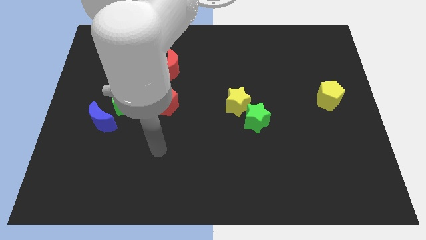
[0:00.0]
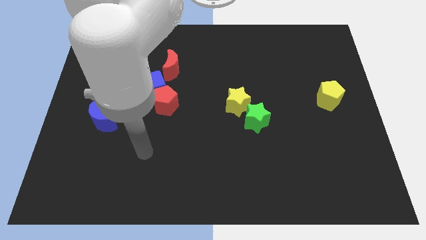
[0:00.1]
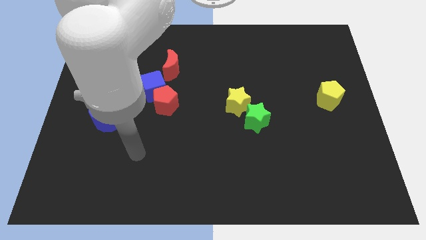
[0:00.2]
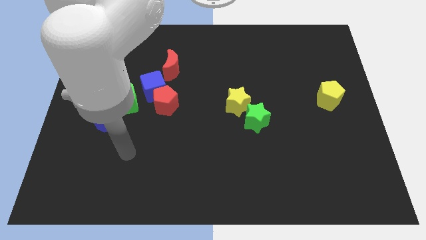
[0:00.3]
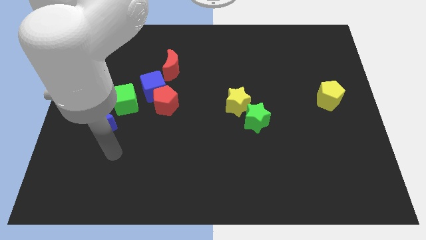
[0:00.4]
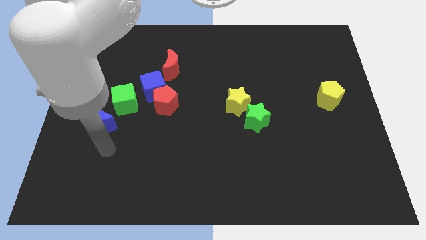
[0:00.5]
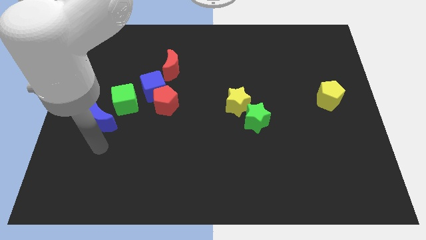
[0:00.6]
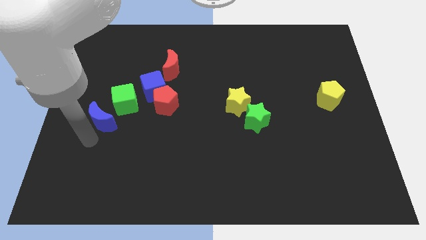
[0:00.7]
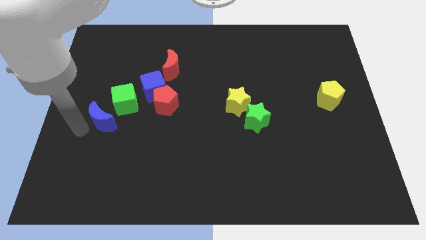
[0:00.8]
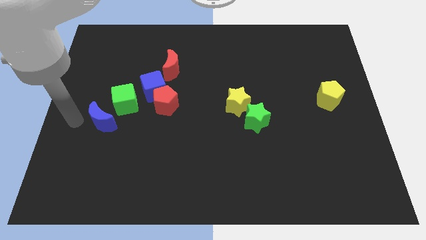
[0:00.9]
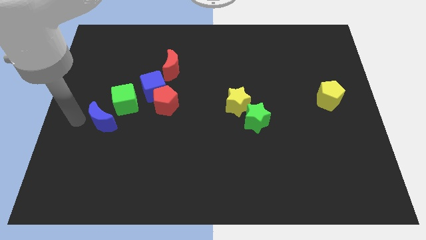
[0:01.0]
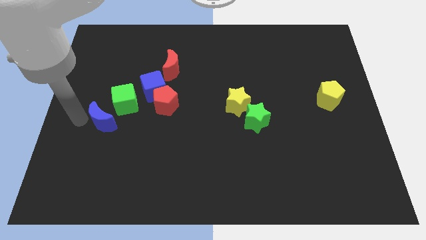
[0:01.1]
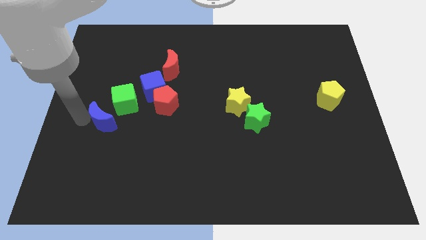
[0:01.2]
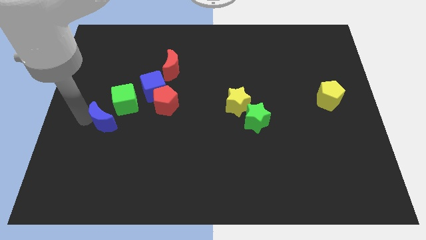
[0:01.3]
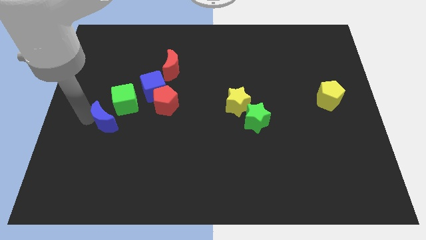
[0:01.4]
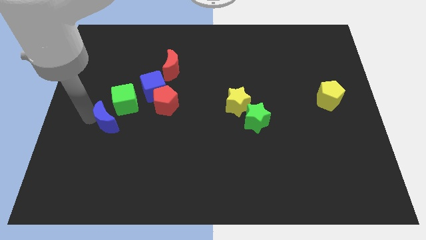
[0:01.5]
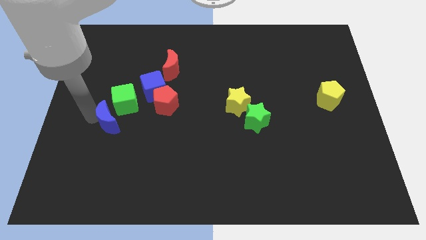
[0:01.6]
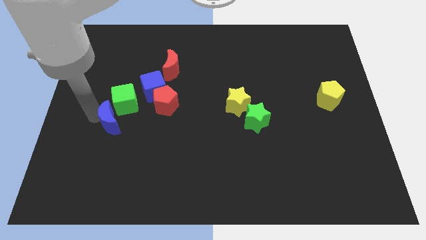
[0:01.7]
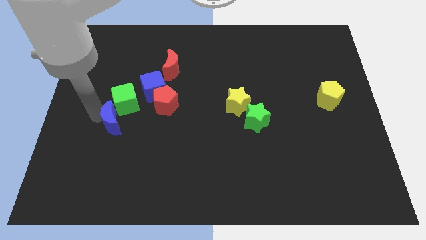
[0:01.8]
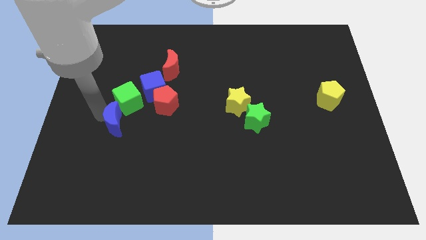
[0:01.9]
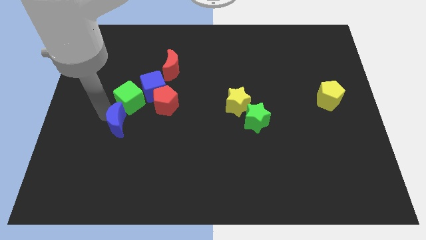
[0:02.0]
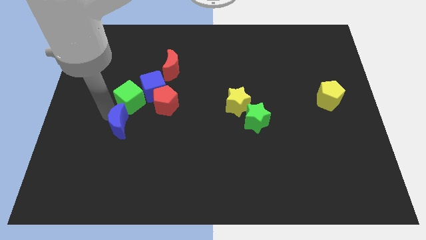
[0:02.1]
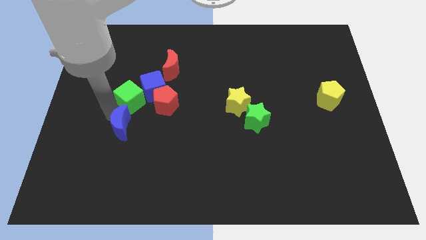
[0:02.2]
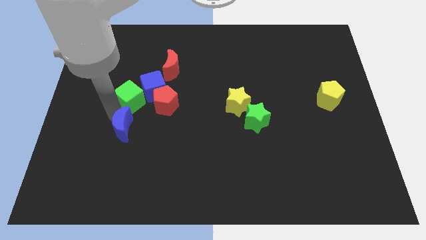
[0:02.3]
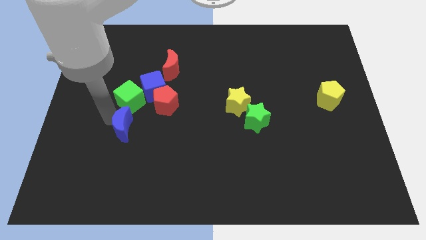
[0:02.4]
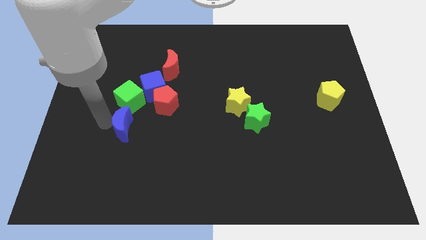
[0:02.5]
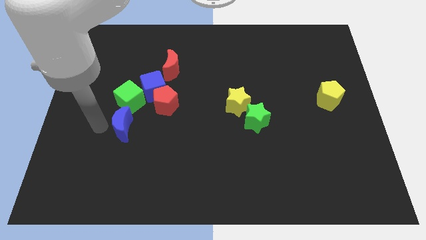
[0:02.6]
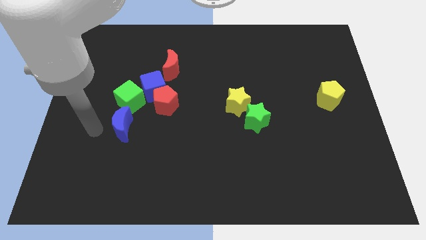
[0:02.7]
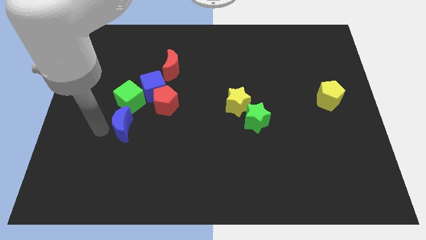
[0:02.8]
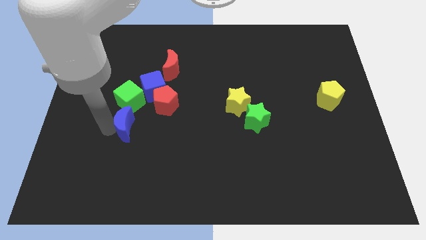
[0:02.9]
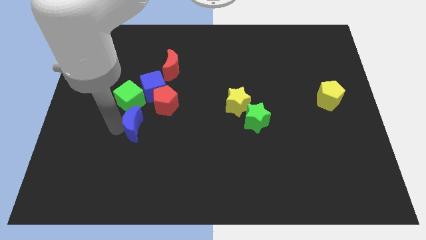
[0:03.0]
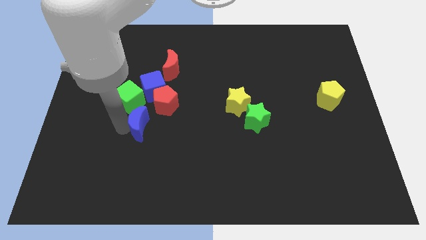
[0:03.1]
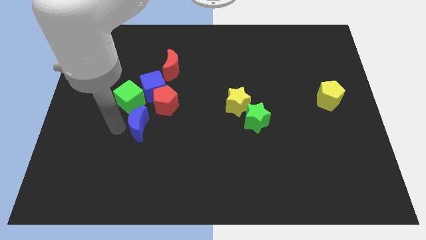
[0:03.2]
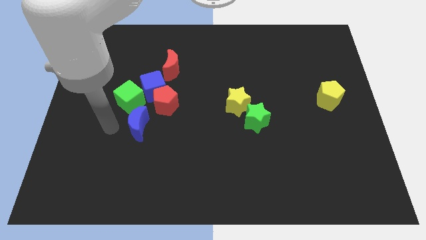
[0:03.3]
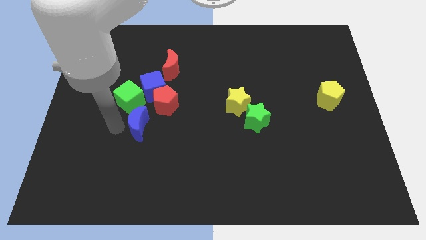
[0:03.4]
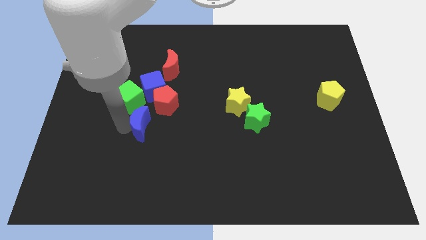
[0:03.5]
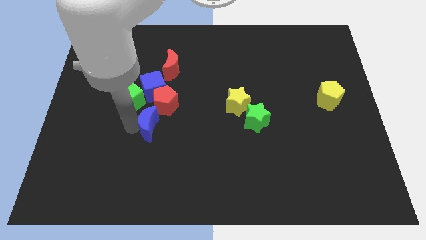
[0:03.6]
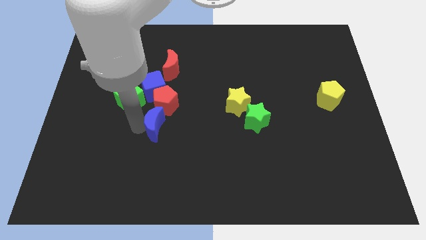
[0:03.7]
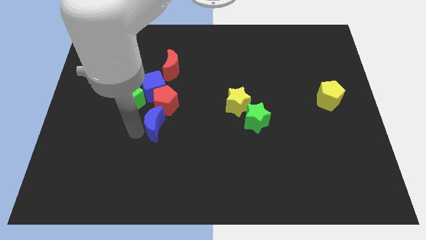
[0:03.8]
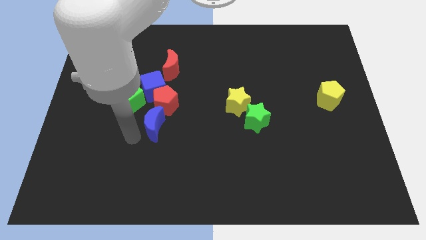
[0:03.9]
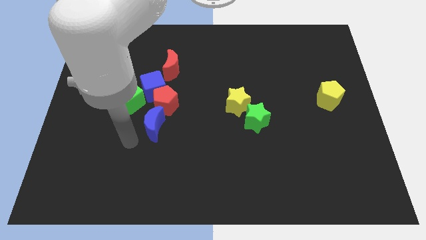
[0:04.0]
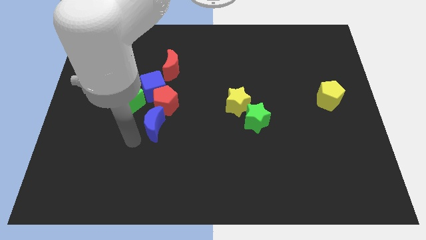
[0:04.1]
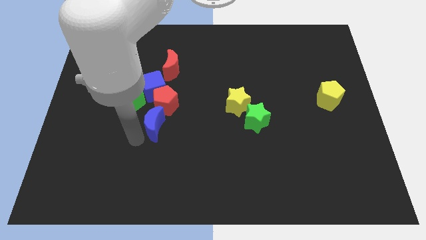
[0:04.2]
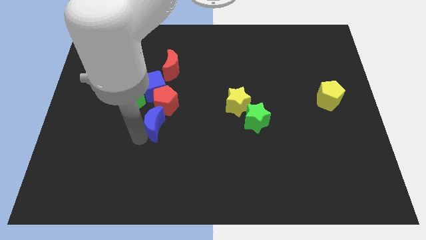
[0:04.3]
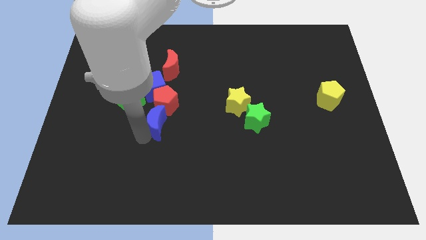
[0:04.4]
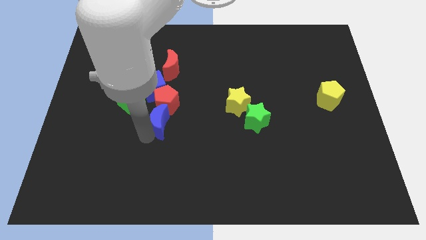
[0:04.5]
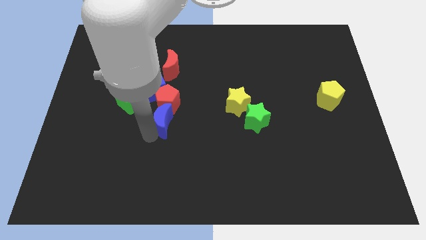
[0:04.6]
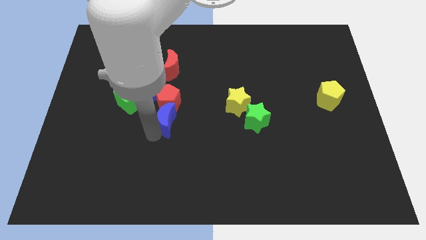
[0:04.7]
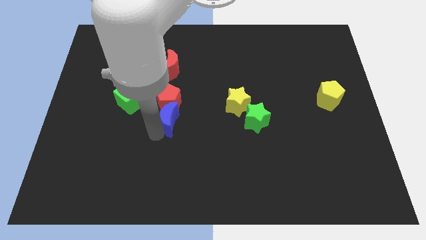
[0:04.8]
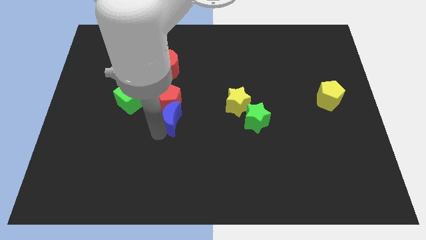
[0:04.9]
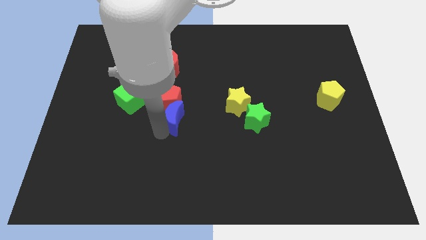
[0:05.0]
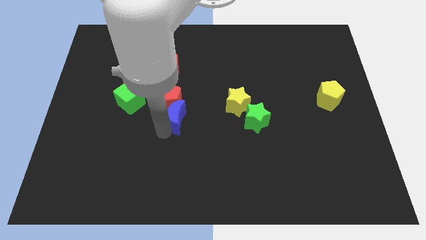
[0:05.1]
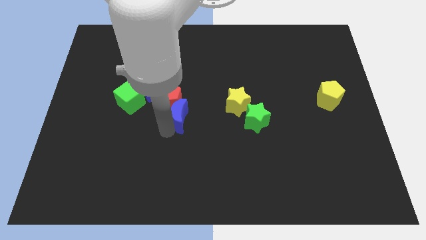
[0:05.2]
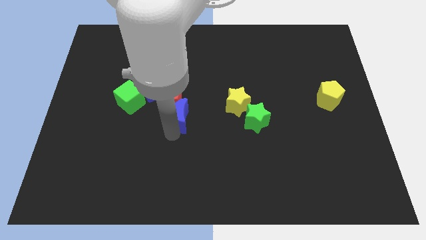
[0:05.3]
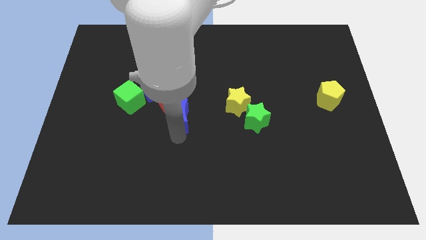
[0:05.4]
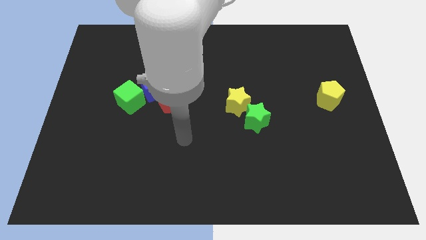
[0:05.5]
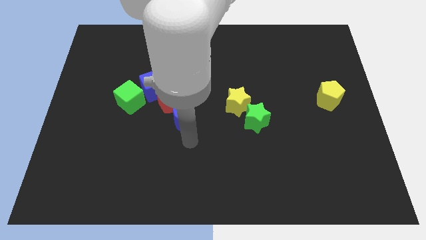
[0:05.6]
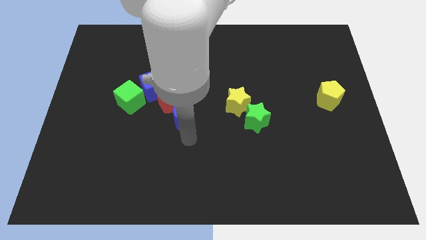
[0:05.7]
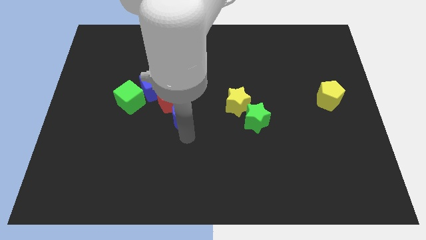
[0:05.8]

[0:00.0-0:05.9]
move the blue moon to the right of the green cube
